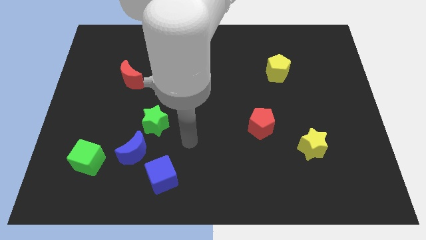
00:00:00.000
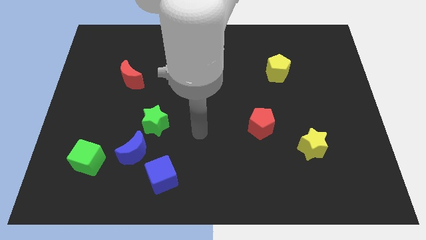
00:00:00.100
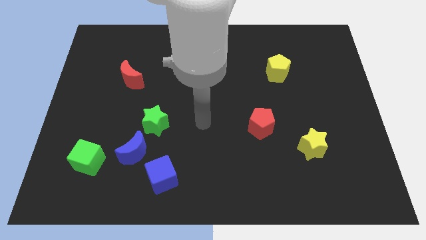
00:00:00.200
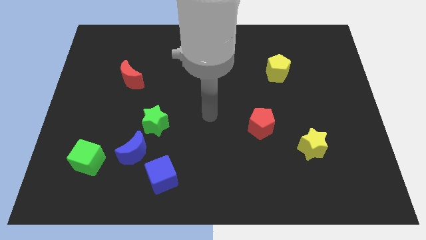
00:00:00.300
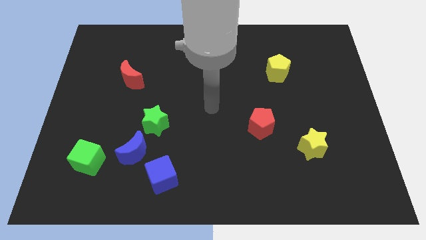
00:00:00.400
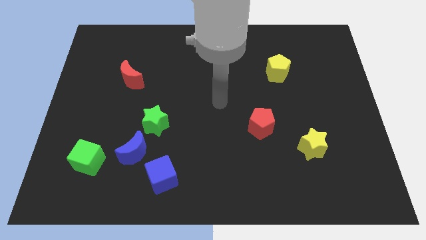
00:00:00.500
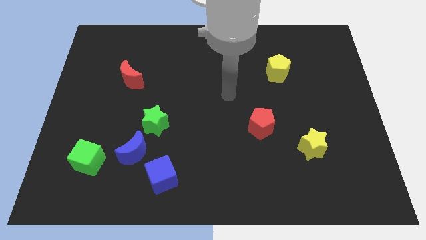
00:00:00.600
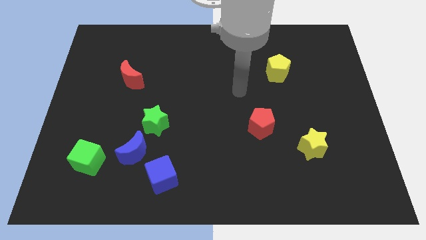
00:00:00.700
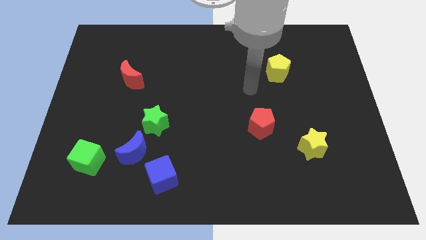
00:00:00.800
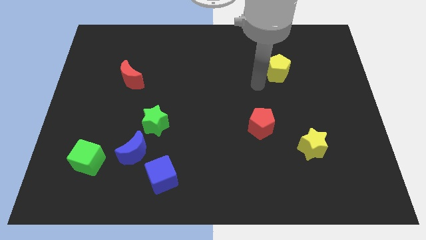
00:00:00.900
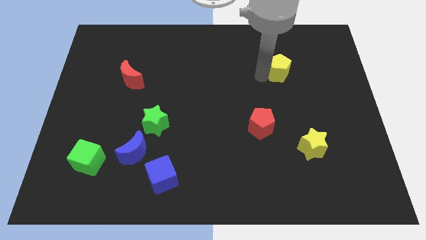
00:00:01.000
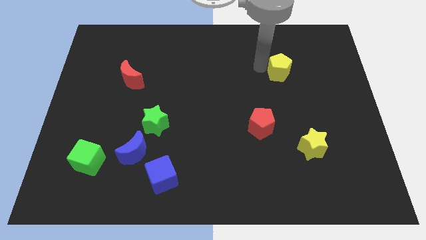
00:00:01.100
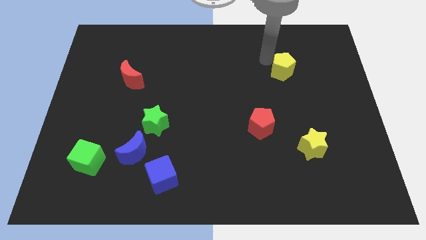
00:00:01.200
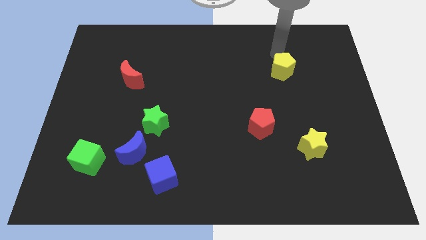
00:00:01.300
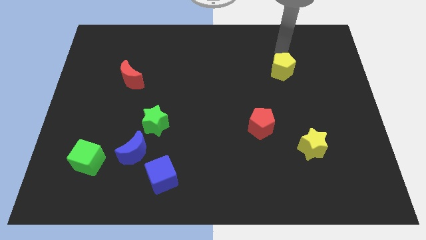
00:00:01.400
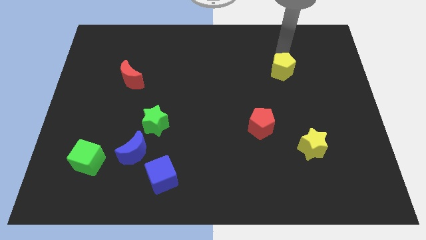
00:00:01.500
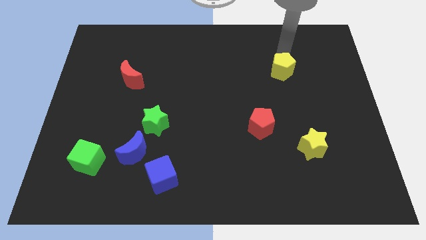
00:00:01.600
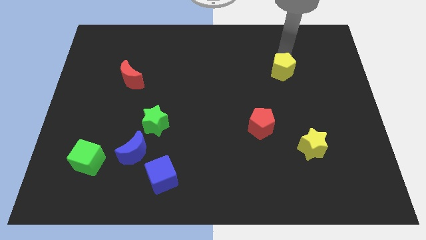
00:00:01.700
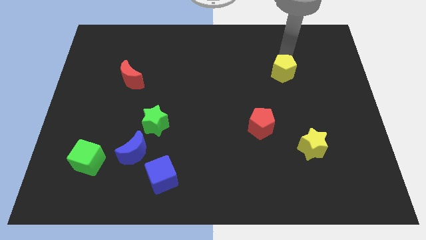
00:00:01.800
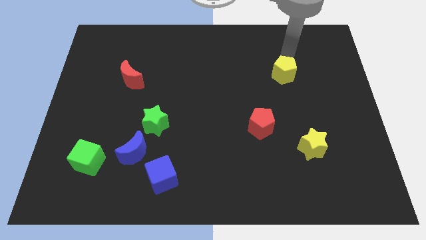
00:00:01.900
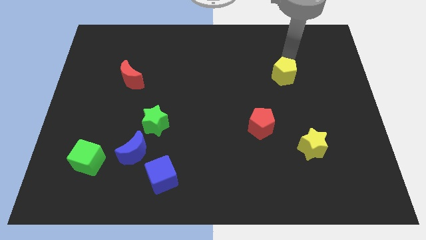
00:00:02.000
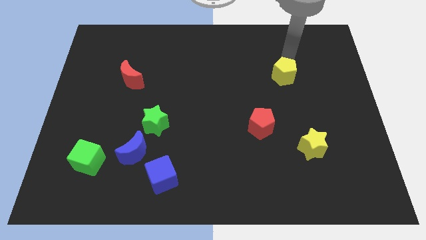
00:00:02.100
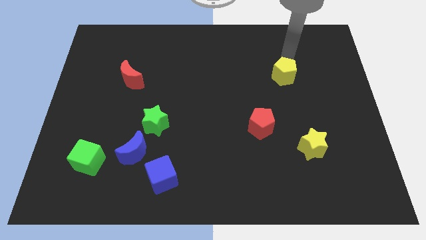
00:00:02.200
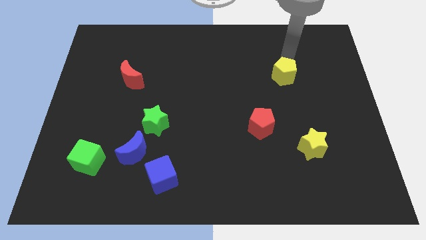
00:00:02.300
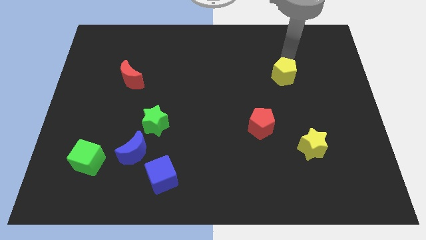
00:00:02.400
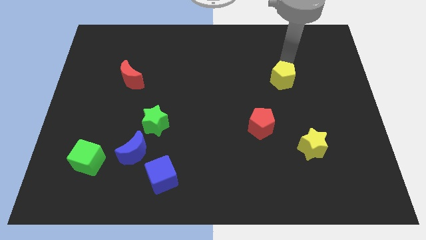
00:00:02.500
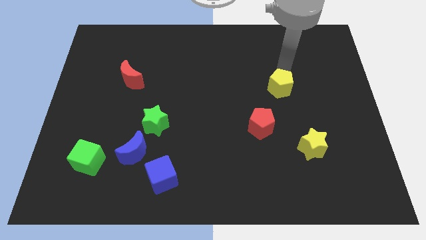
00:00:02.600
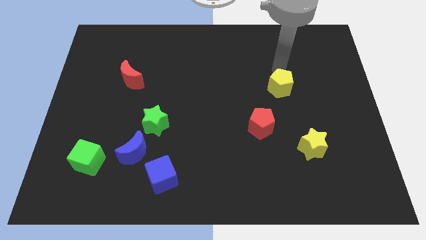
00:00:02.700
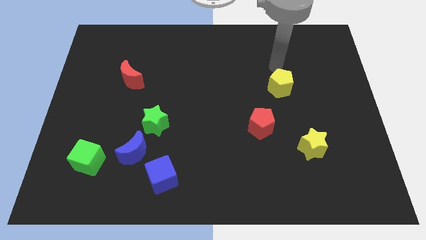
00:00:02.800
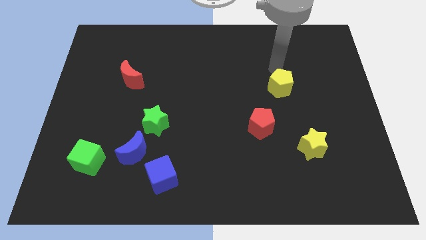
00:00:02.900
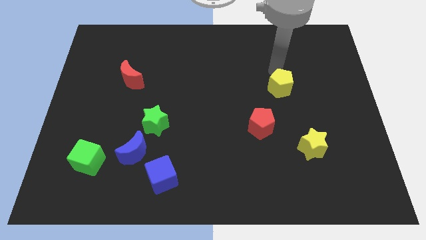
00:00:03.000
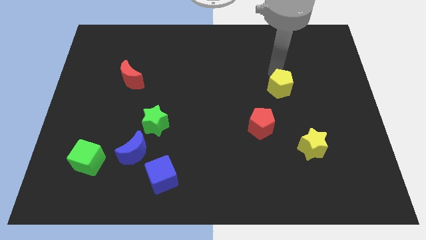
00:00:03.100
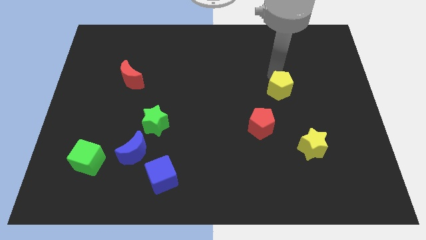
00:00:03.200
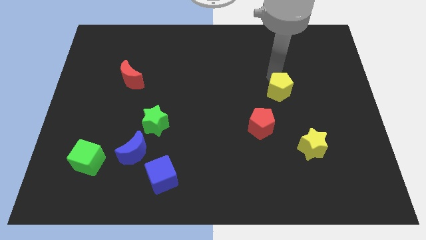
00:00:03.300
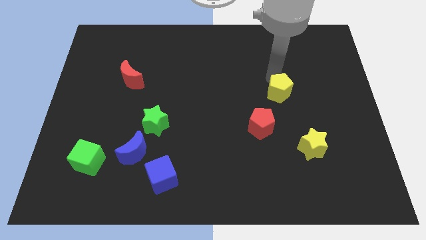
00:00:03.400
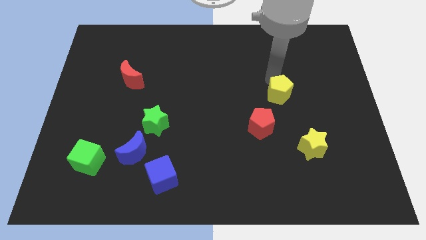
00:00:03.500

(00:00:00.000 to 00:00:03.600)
slide the yellow pentagon down a little

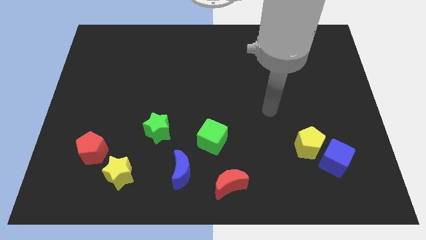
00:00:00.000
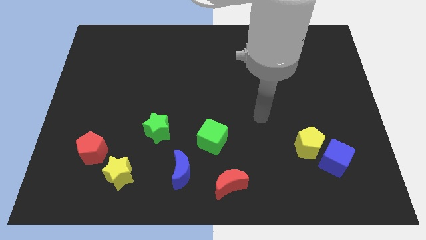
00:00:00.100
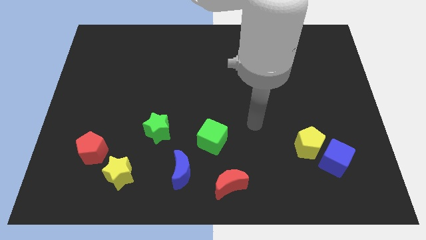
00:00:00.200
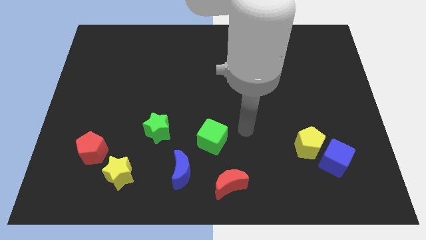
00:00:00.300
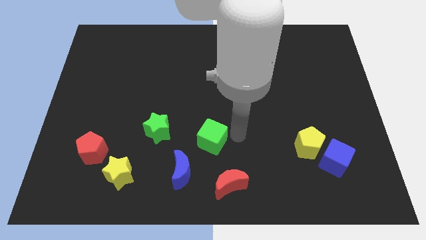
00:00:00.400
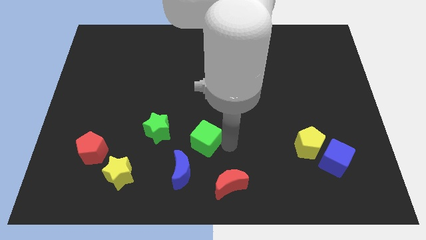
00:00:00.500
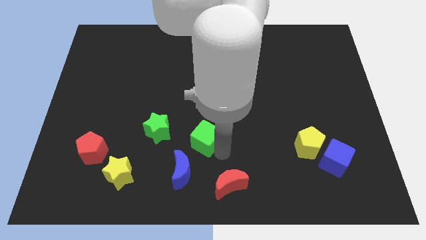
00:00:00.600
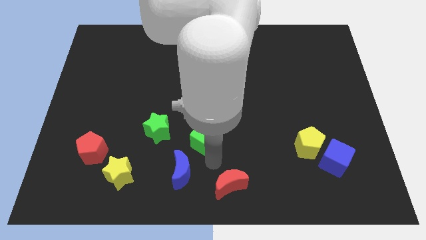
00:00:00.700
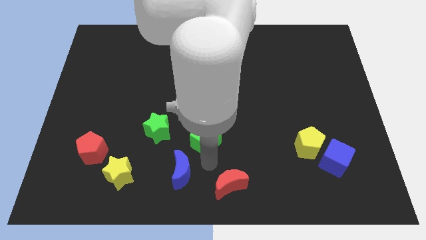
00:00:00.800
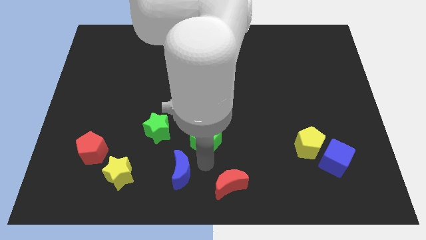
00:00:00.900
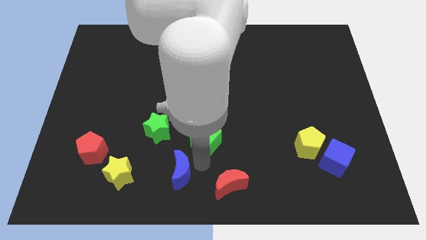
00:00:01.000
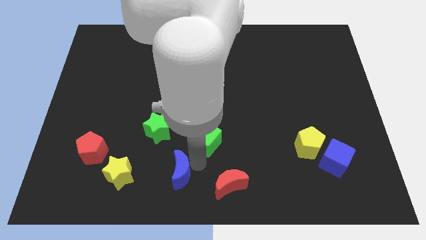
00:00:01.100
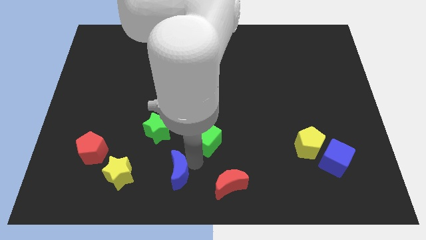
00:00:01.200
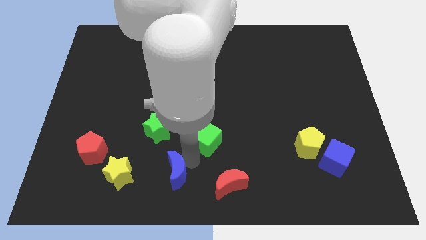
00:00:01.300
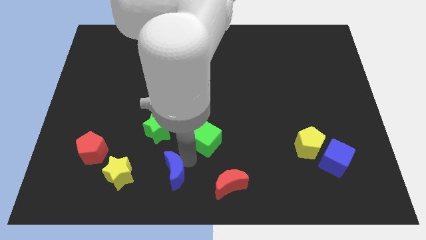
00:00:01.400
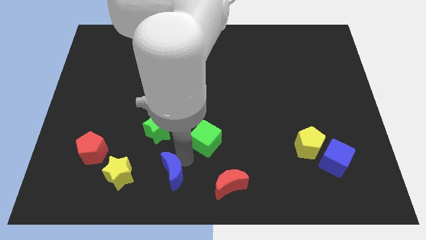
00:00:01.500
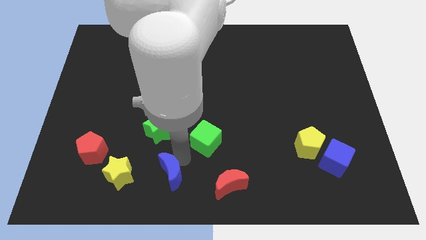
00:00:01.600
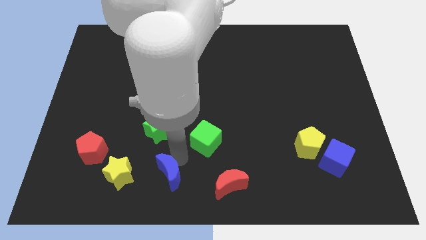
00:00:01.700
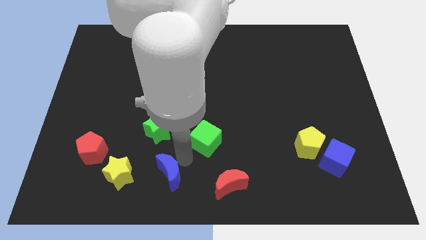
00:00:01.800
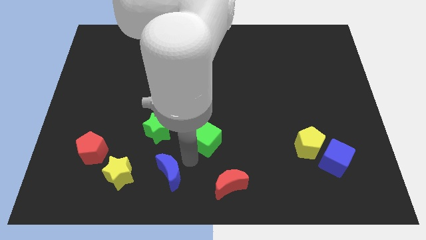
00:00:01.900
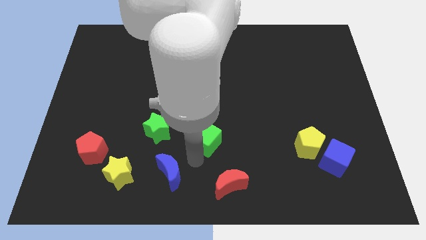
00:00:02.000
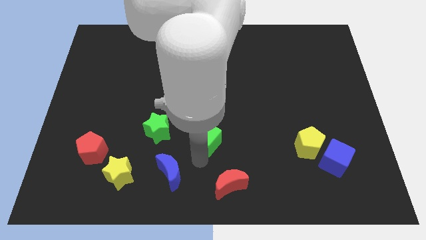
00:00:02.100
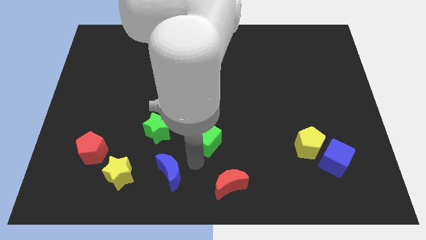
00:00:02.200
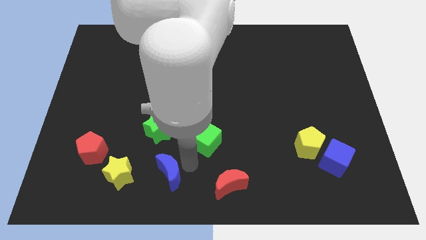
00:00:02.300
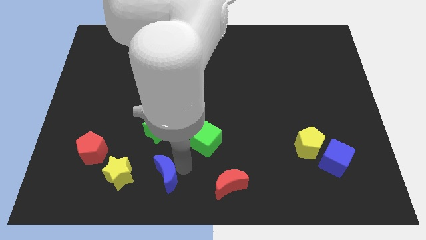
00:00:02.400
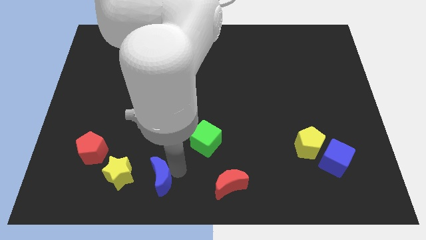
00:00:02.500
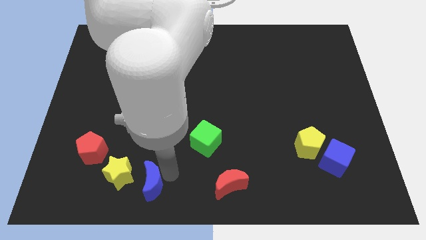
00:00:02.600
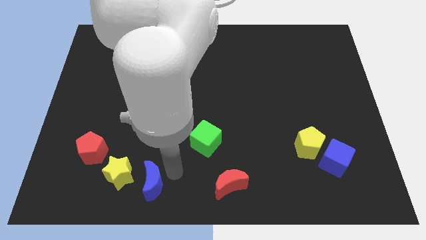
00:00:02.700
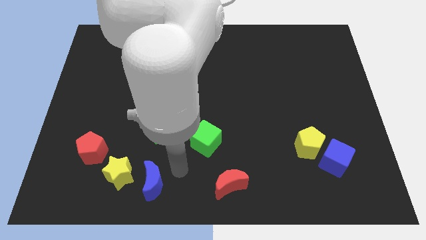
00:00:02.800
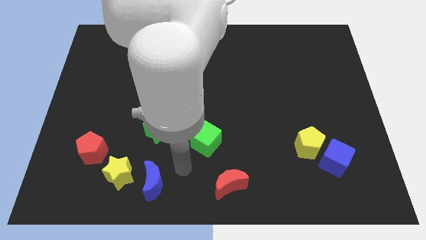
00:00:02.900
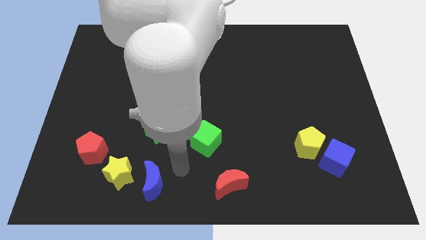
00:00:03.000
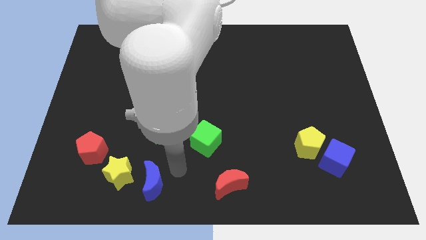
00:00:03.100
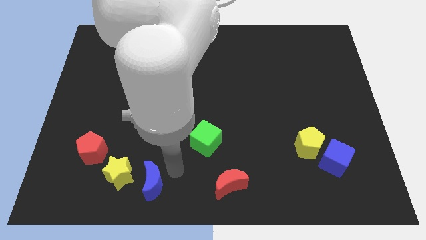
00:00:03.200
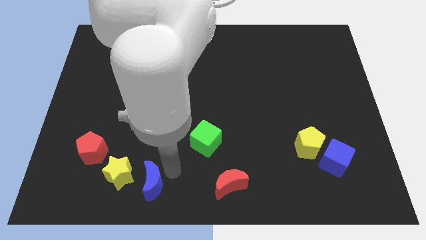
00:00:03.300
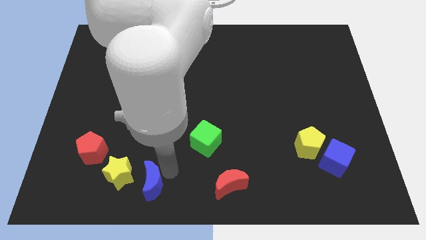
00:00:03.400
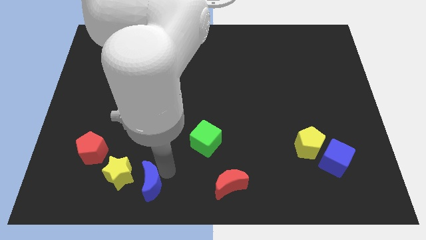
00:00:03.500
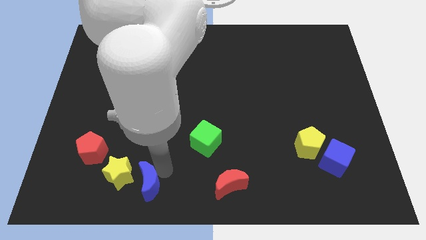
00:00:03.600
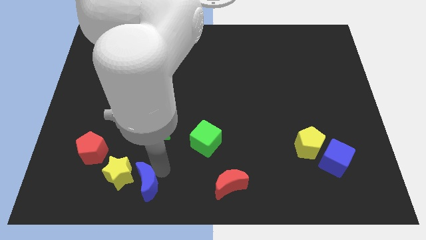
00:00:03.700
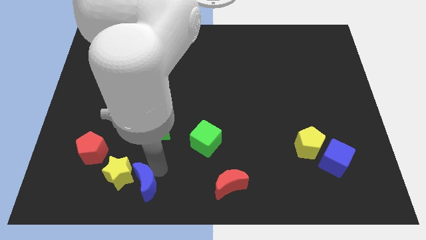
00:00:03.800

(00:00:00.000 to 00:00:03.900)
slide the blue moon slightly to the left

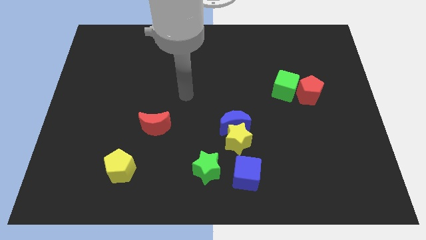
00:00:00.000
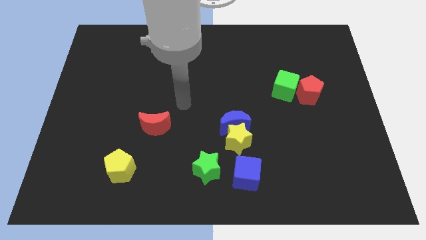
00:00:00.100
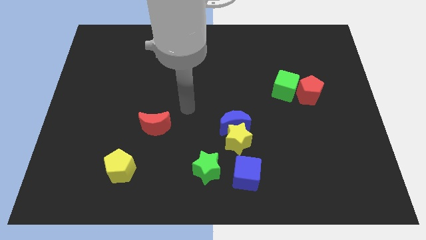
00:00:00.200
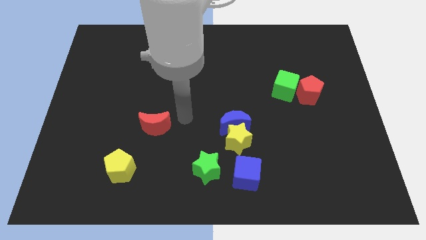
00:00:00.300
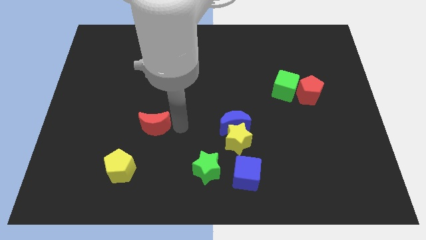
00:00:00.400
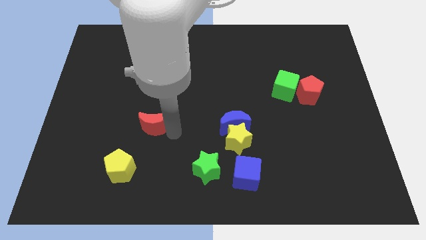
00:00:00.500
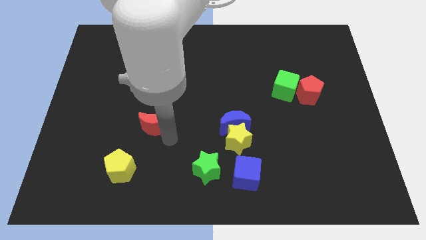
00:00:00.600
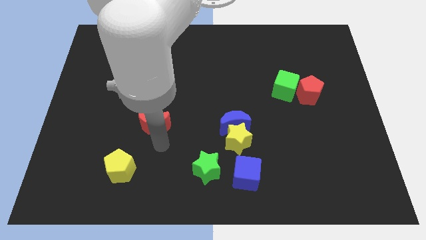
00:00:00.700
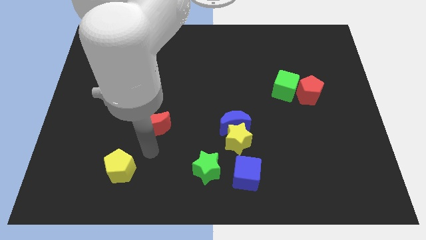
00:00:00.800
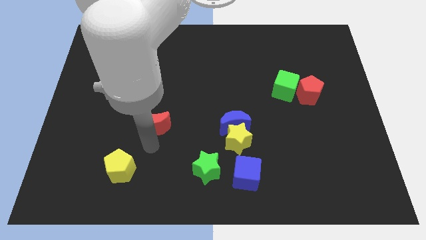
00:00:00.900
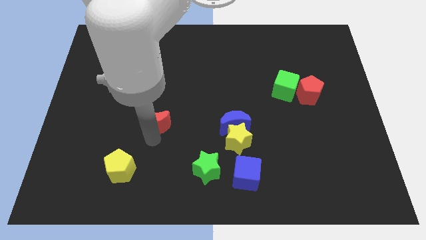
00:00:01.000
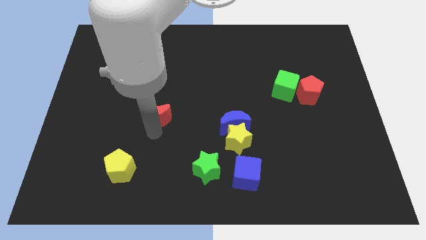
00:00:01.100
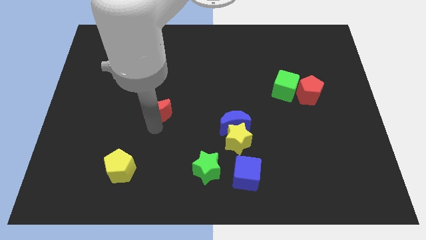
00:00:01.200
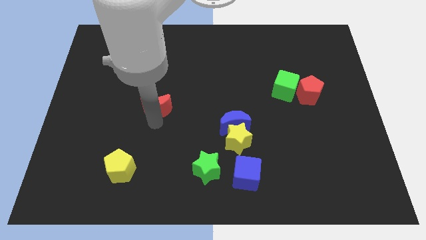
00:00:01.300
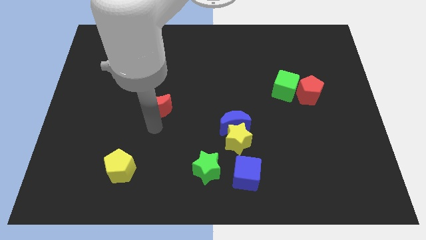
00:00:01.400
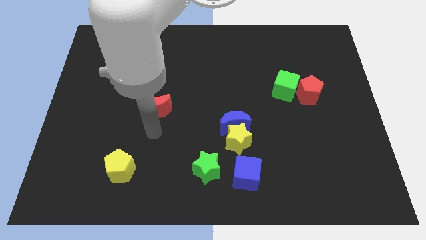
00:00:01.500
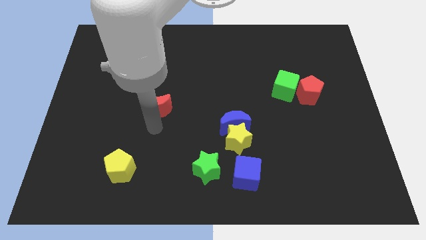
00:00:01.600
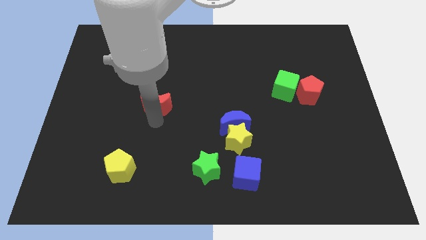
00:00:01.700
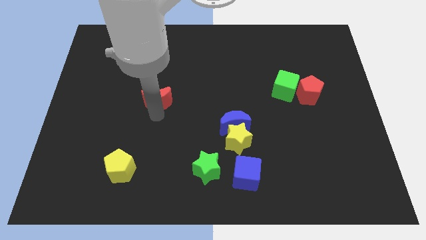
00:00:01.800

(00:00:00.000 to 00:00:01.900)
push the red moon up slightly
